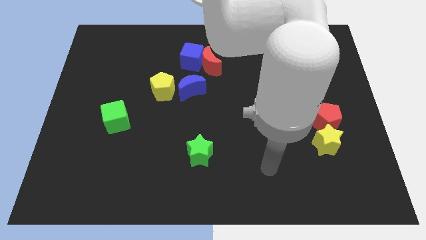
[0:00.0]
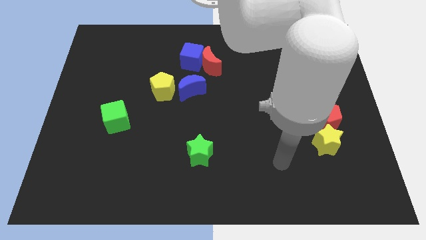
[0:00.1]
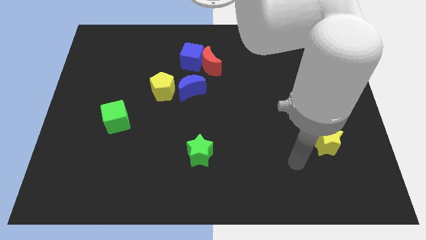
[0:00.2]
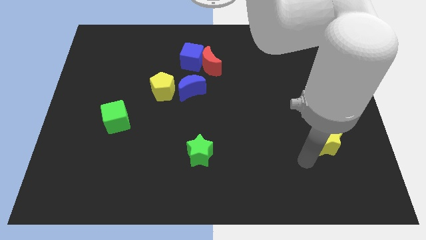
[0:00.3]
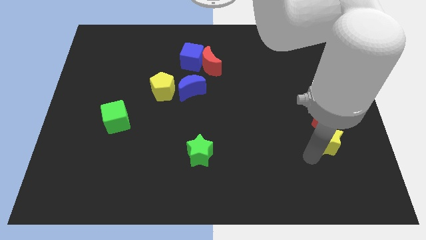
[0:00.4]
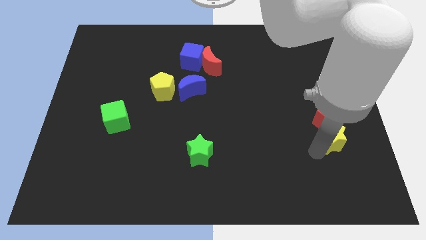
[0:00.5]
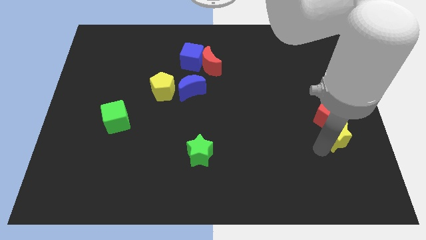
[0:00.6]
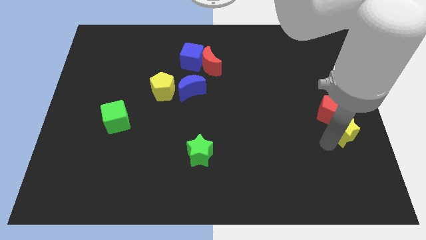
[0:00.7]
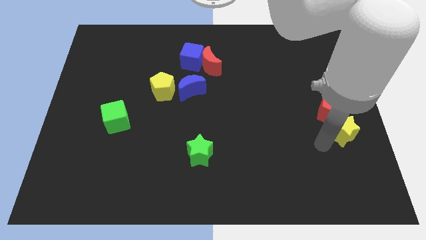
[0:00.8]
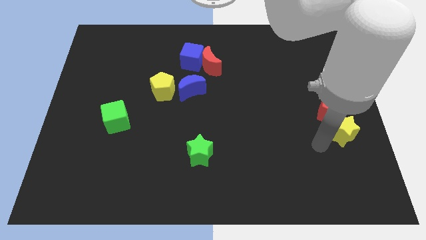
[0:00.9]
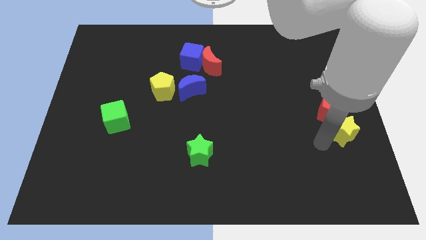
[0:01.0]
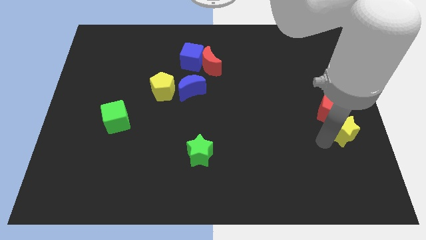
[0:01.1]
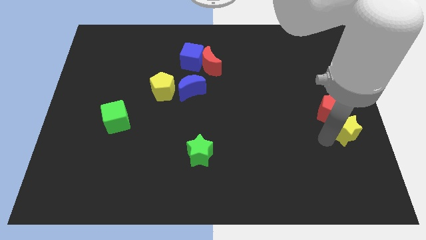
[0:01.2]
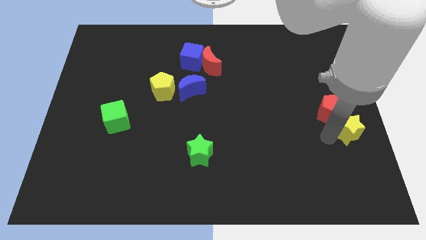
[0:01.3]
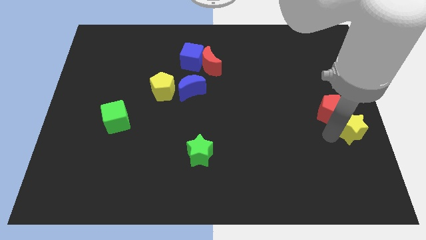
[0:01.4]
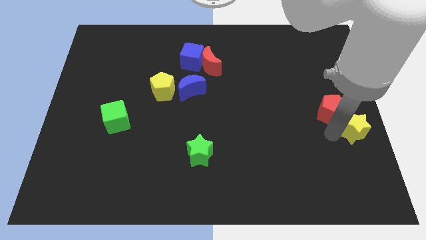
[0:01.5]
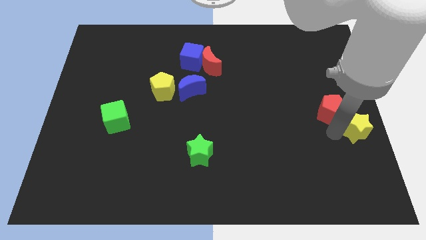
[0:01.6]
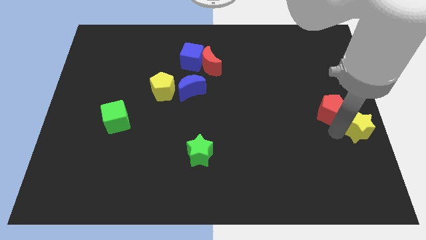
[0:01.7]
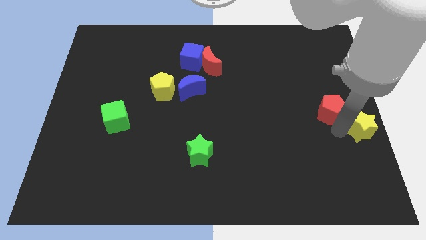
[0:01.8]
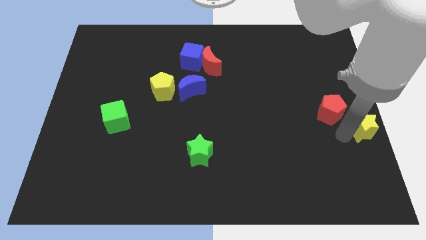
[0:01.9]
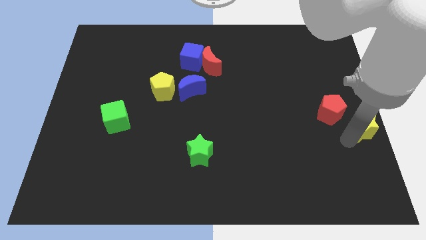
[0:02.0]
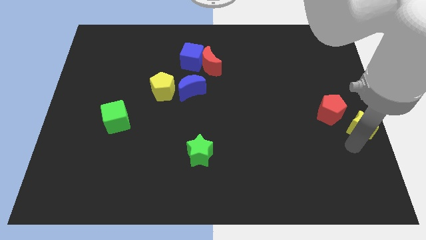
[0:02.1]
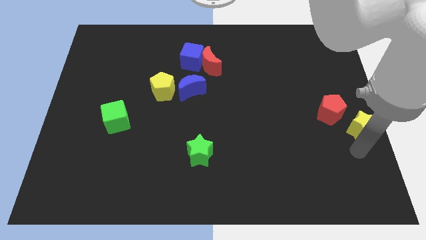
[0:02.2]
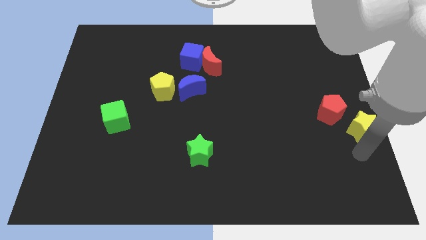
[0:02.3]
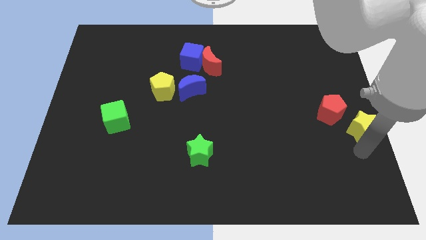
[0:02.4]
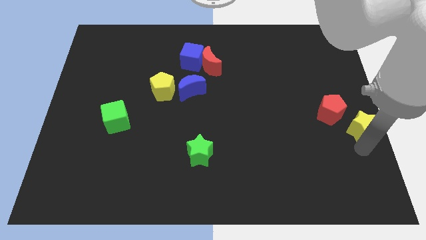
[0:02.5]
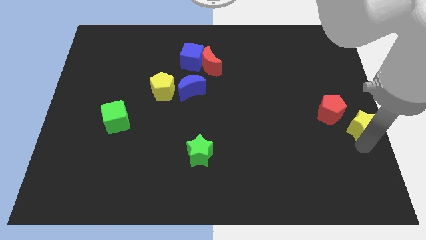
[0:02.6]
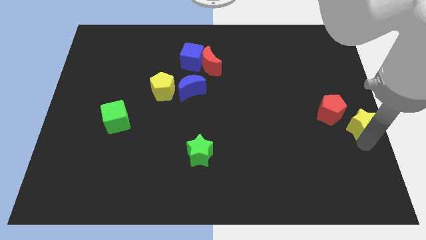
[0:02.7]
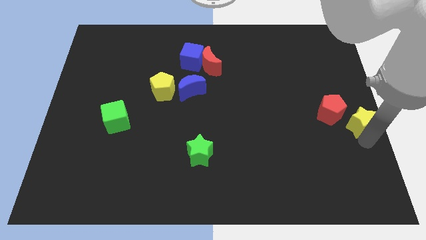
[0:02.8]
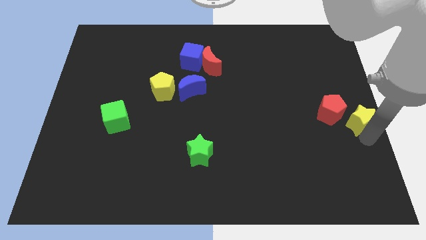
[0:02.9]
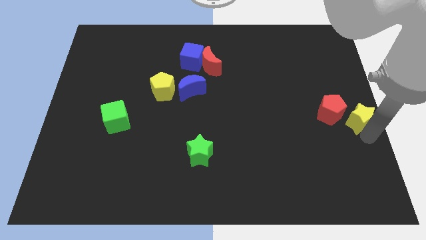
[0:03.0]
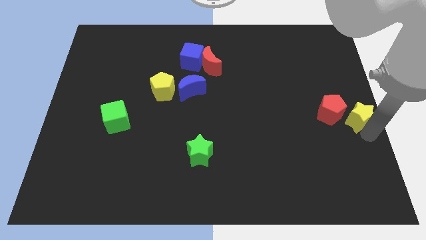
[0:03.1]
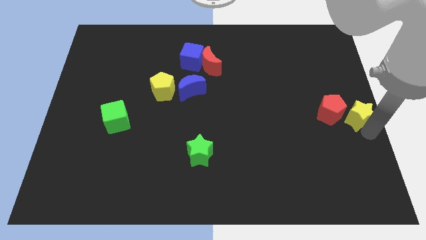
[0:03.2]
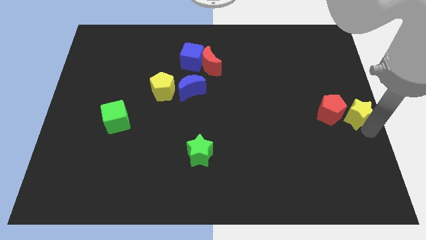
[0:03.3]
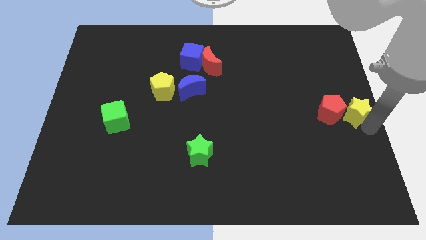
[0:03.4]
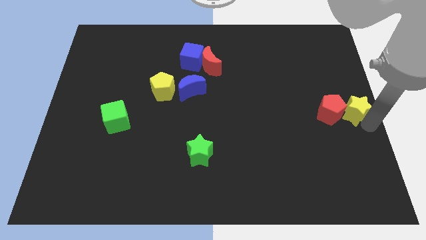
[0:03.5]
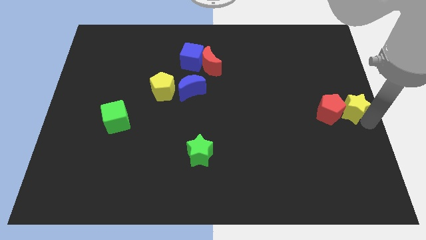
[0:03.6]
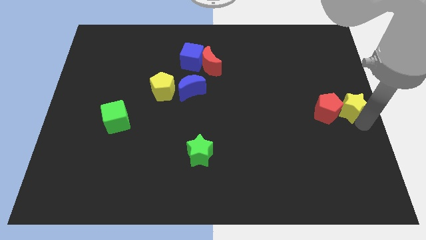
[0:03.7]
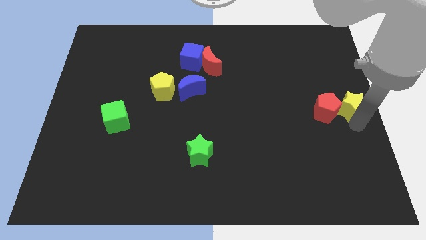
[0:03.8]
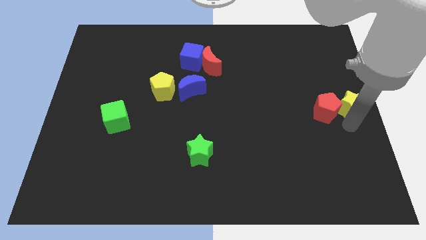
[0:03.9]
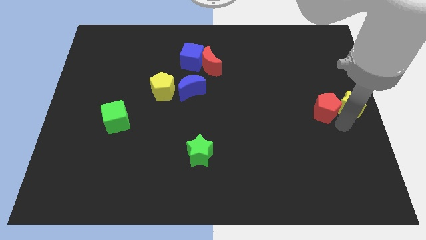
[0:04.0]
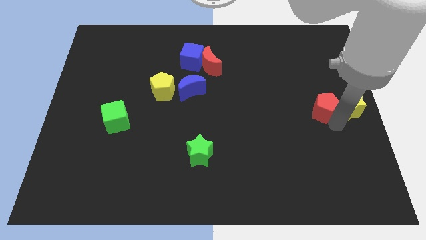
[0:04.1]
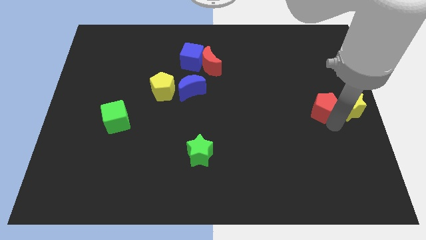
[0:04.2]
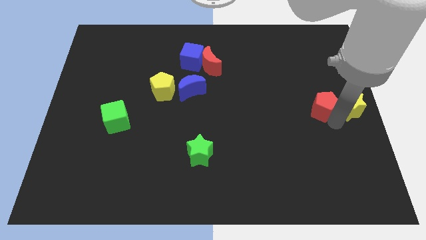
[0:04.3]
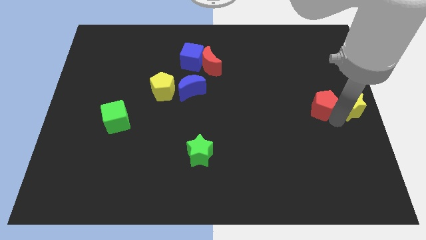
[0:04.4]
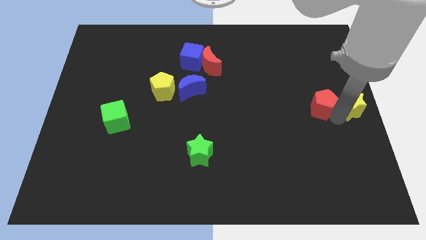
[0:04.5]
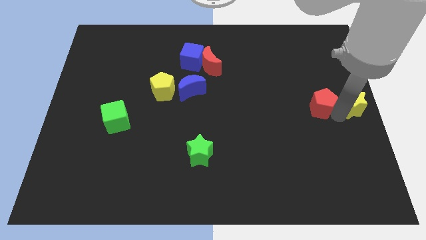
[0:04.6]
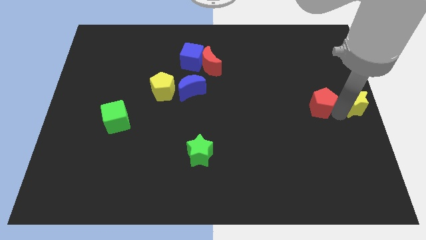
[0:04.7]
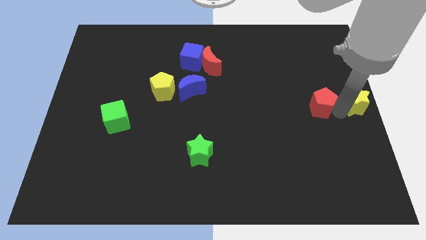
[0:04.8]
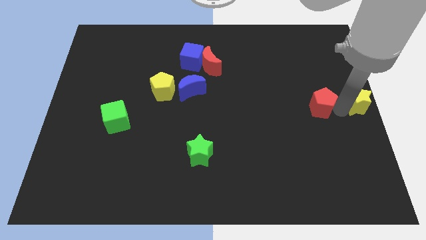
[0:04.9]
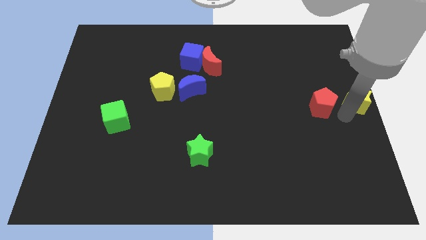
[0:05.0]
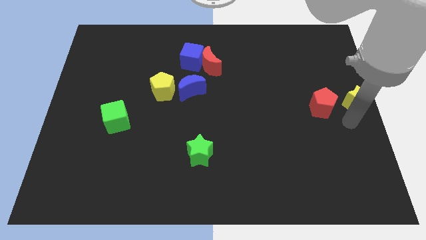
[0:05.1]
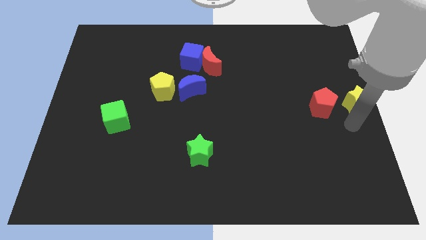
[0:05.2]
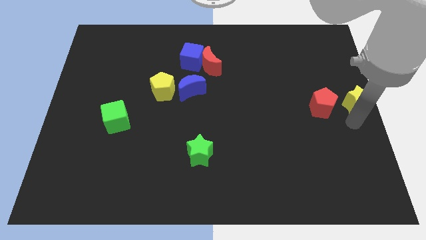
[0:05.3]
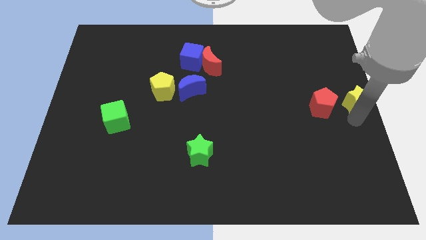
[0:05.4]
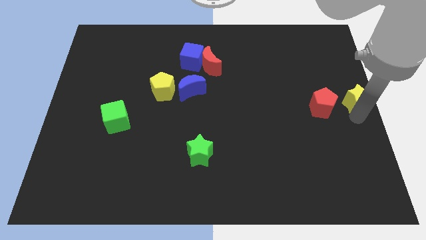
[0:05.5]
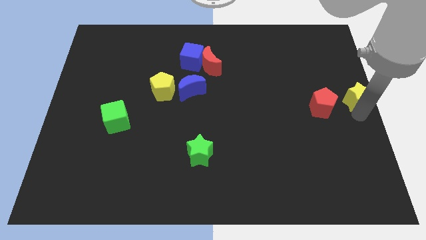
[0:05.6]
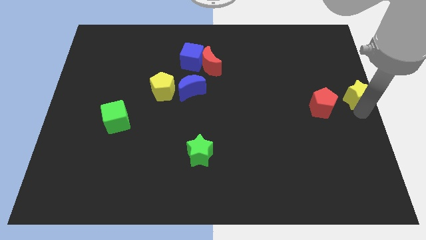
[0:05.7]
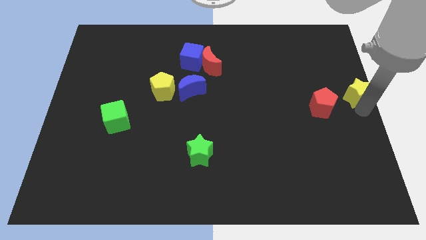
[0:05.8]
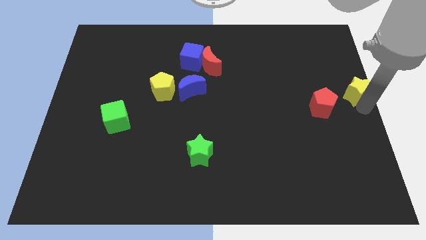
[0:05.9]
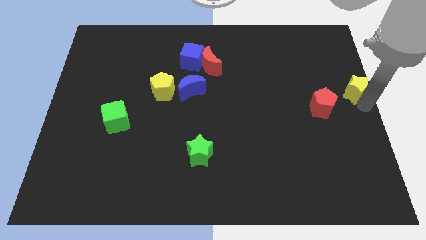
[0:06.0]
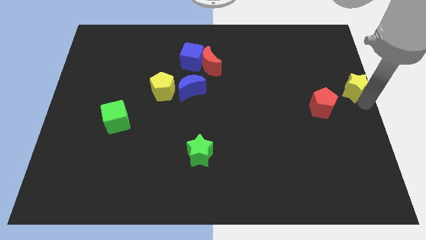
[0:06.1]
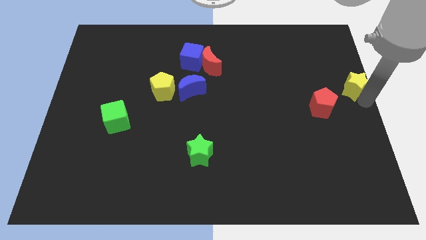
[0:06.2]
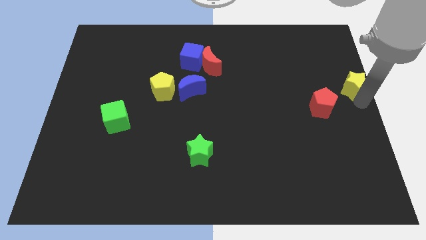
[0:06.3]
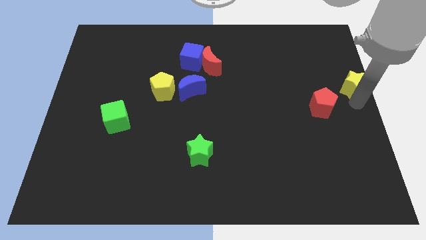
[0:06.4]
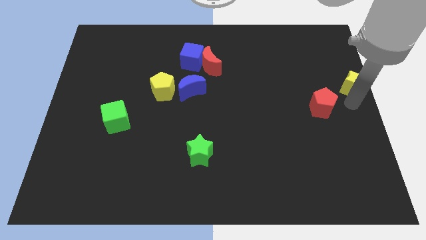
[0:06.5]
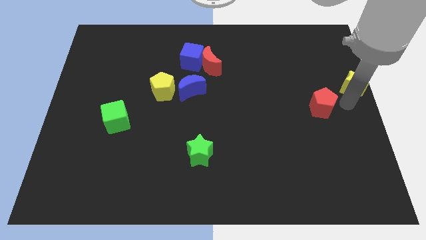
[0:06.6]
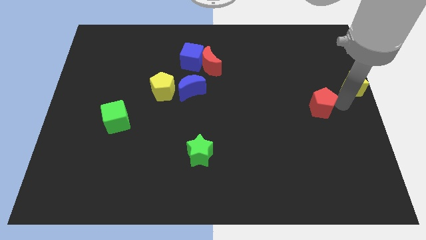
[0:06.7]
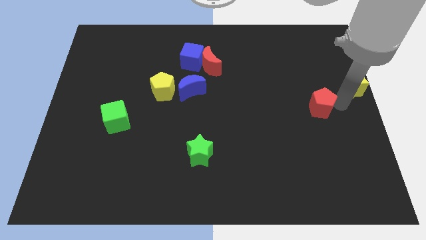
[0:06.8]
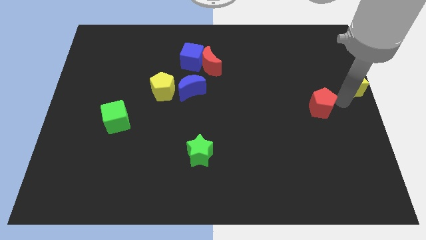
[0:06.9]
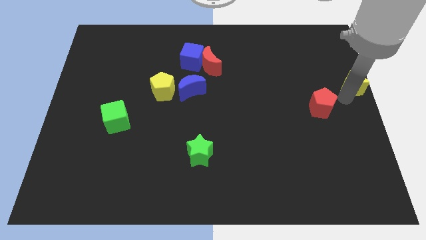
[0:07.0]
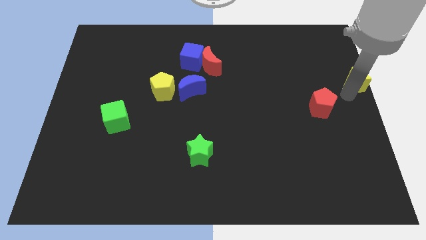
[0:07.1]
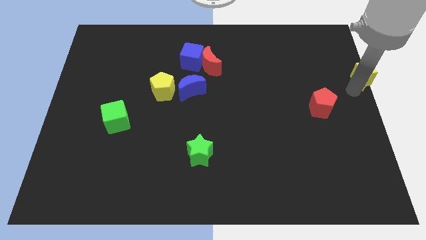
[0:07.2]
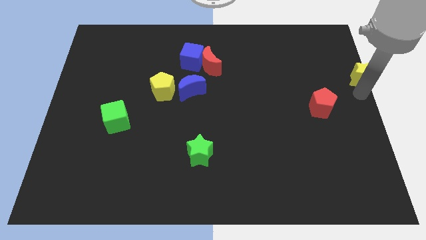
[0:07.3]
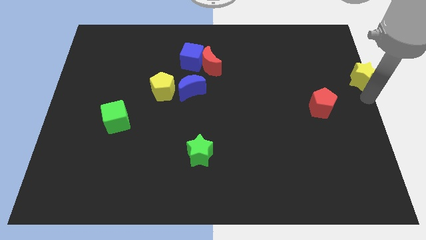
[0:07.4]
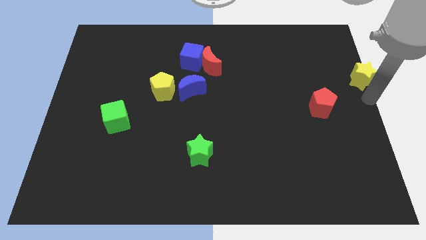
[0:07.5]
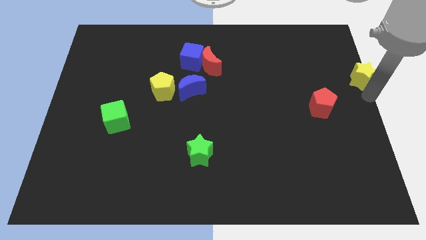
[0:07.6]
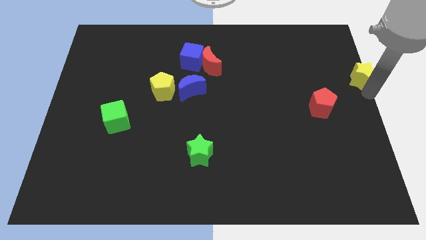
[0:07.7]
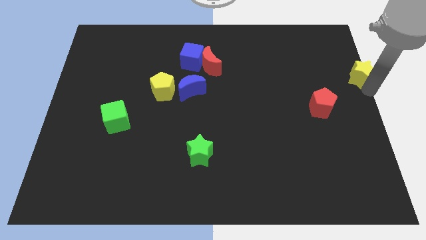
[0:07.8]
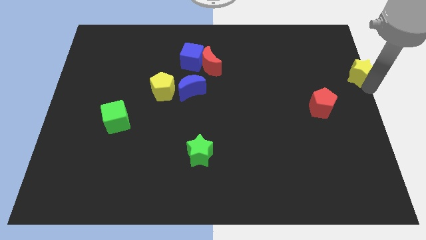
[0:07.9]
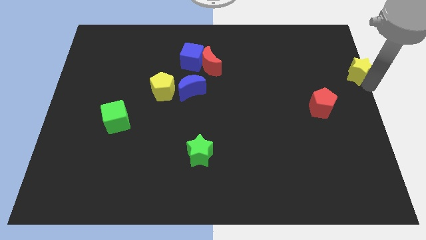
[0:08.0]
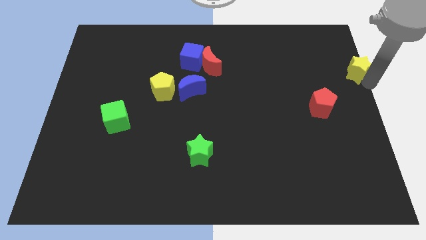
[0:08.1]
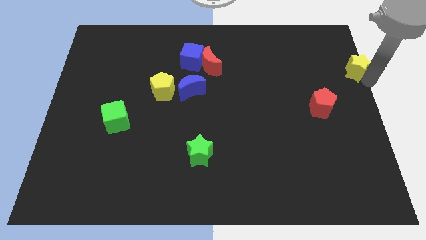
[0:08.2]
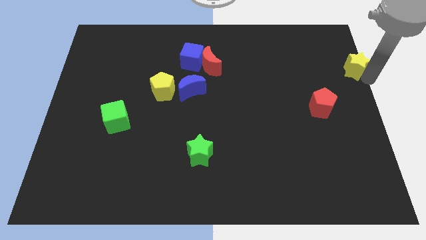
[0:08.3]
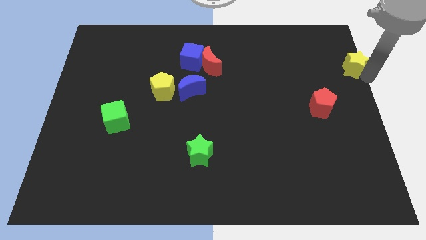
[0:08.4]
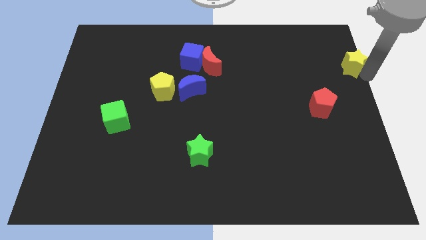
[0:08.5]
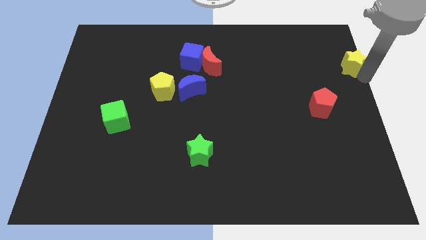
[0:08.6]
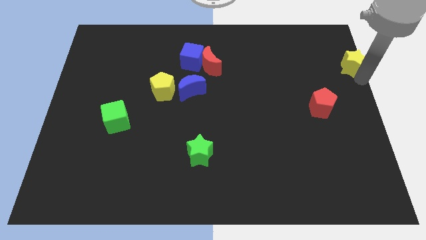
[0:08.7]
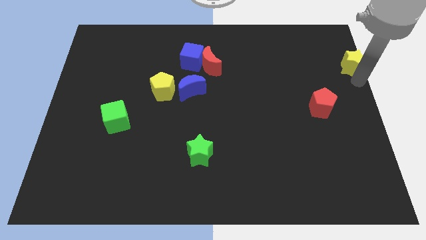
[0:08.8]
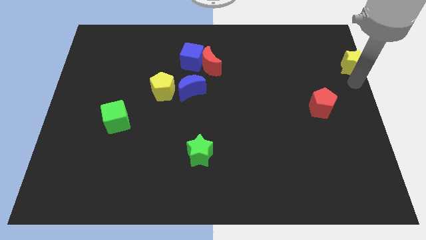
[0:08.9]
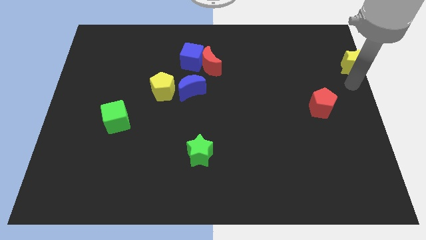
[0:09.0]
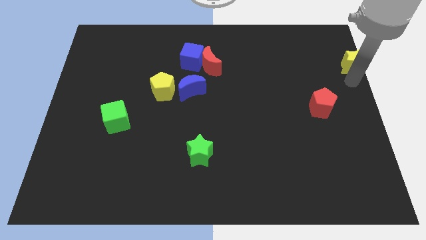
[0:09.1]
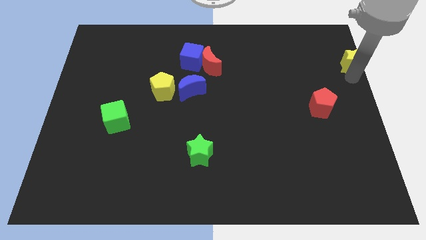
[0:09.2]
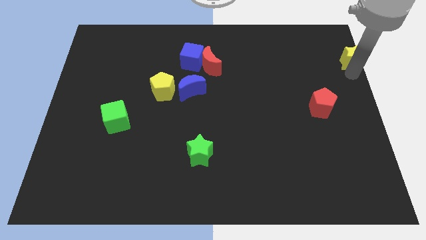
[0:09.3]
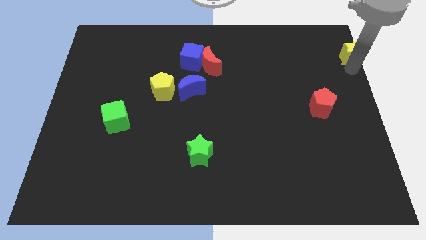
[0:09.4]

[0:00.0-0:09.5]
push the yellow star to the upper right corner
